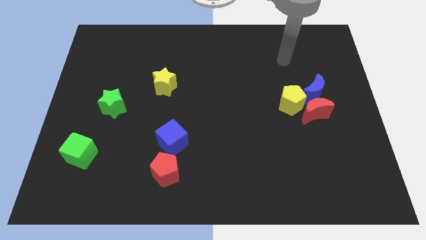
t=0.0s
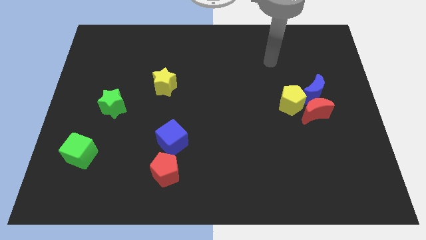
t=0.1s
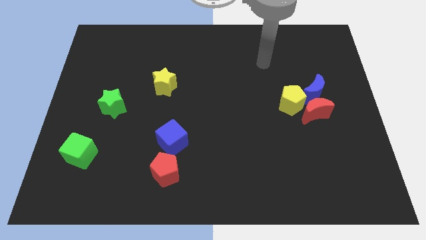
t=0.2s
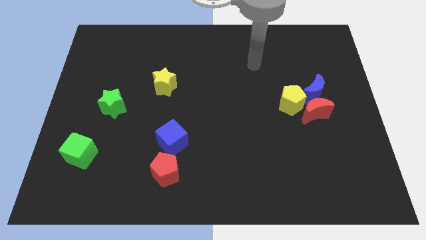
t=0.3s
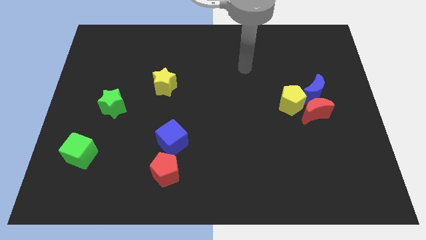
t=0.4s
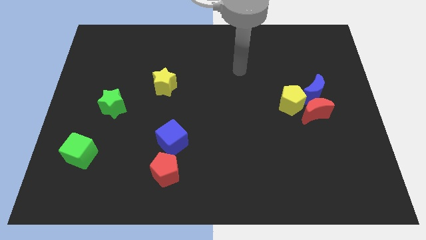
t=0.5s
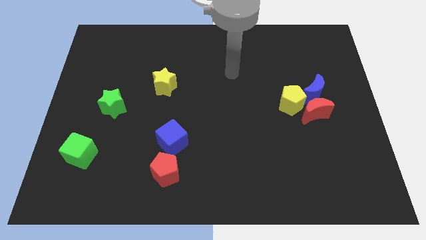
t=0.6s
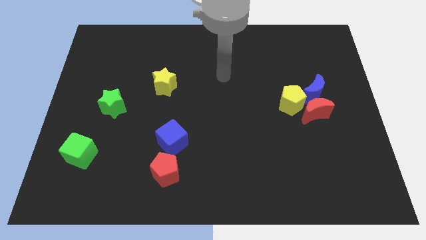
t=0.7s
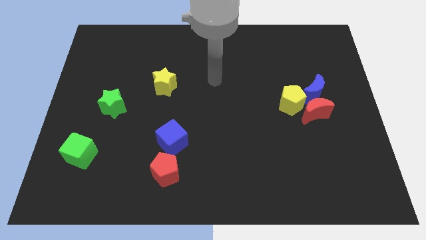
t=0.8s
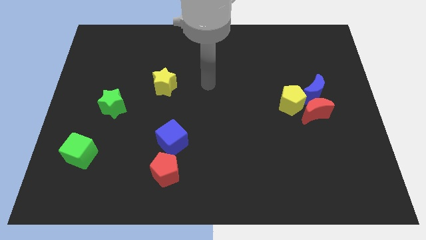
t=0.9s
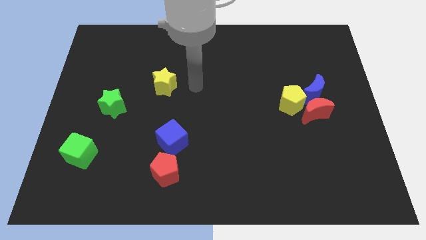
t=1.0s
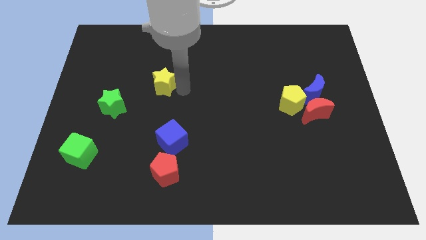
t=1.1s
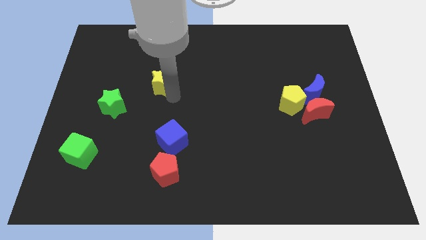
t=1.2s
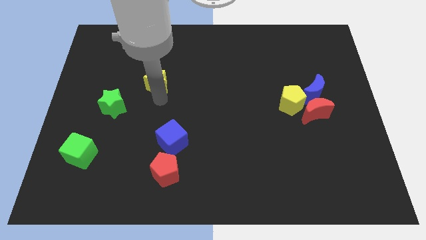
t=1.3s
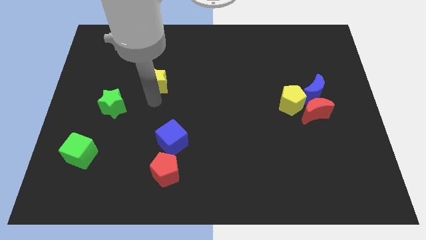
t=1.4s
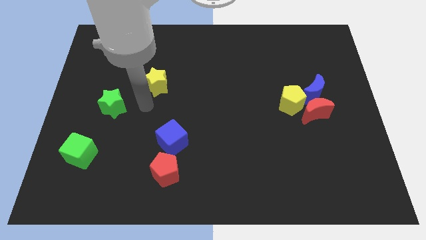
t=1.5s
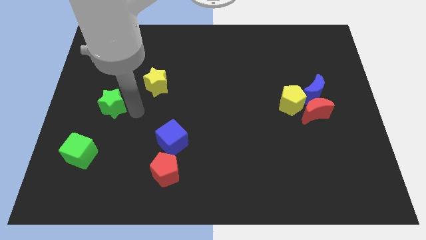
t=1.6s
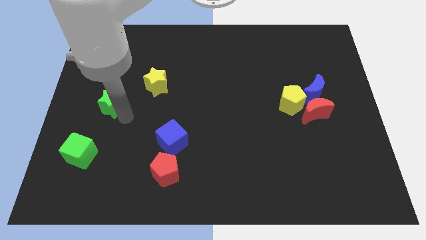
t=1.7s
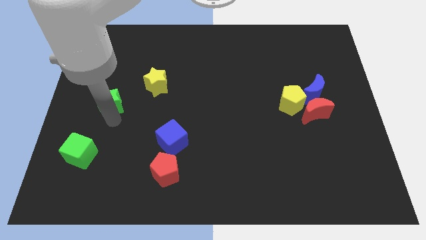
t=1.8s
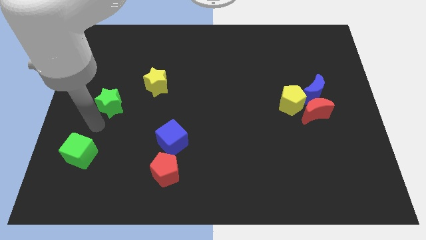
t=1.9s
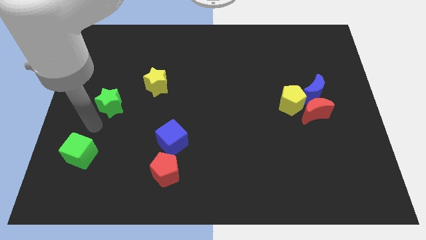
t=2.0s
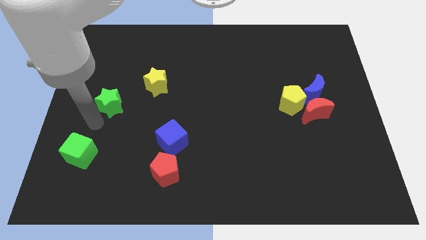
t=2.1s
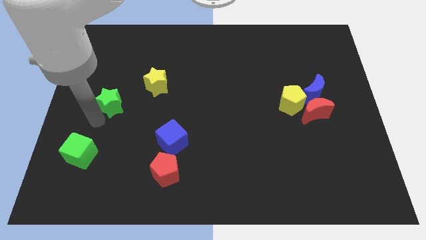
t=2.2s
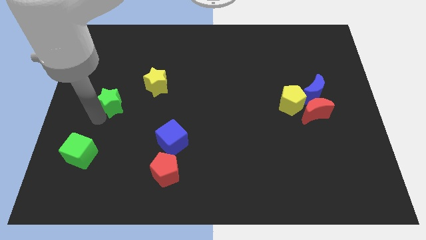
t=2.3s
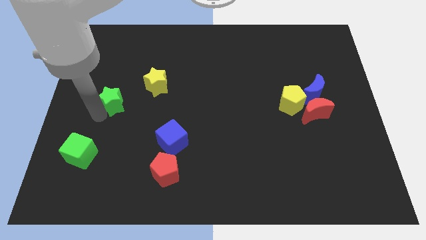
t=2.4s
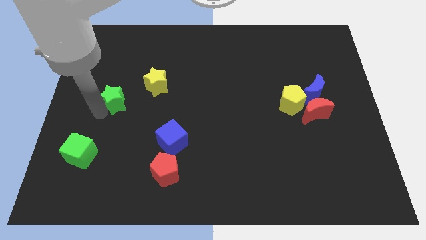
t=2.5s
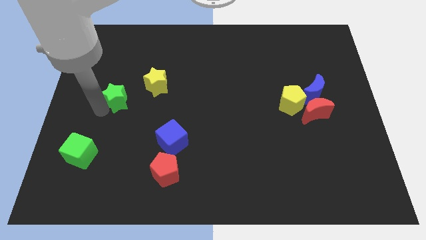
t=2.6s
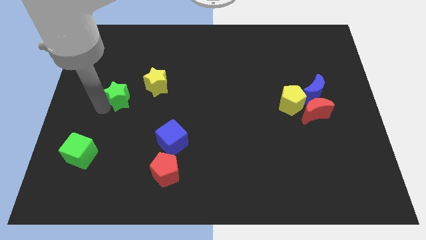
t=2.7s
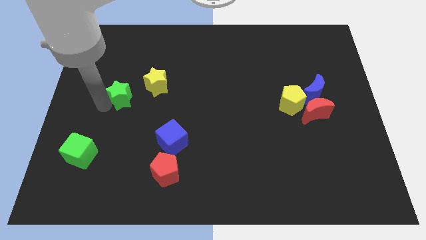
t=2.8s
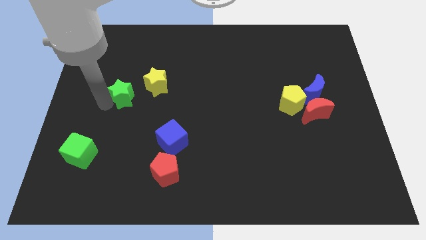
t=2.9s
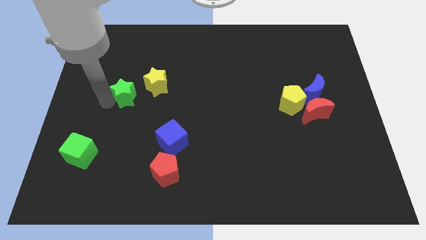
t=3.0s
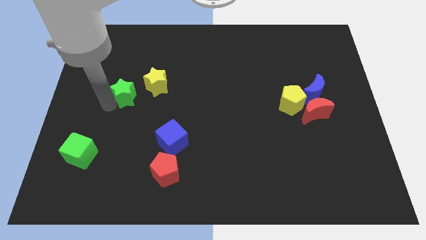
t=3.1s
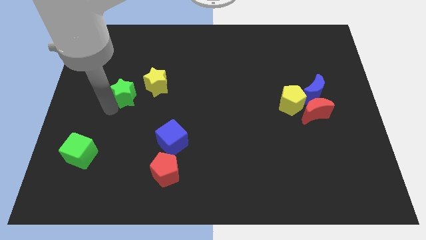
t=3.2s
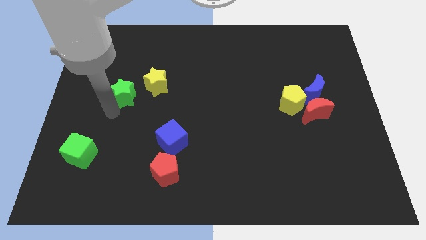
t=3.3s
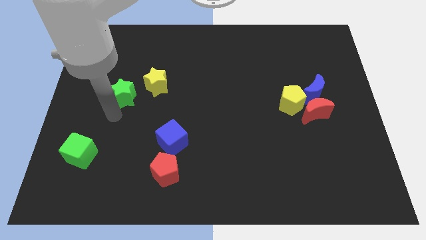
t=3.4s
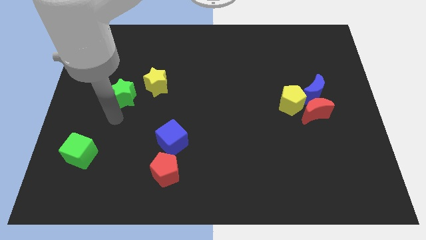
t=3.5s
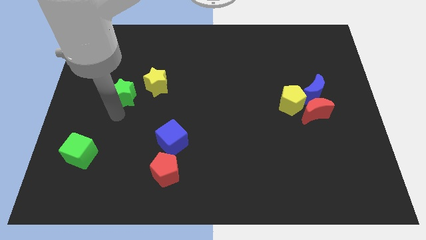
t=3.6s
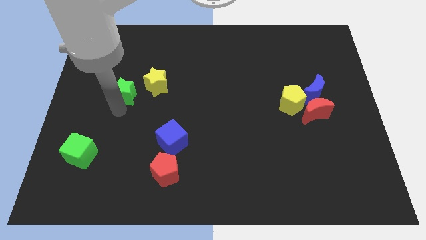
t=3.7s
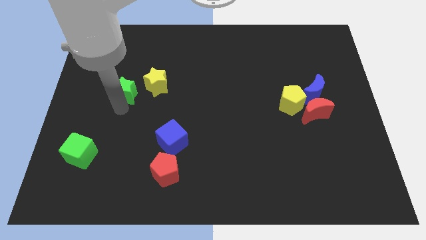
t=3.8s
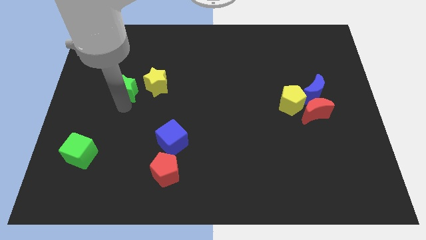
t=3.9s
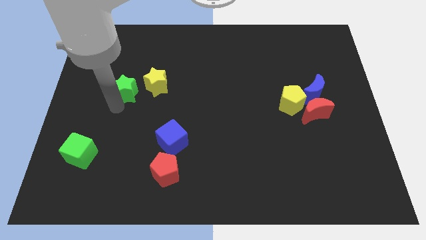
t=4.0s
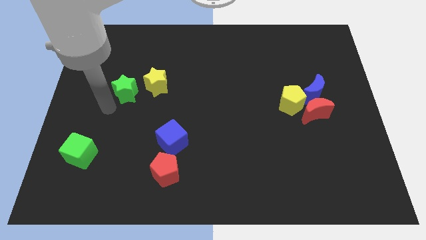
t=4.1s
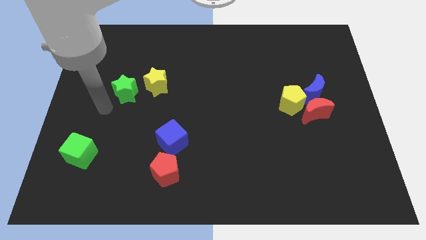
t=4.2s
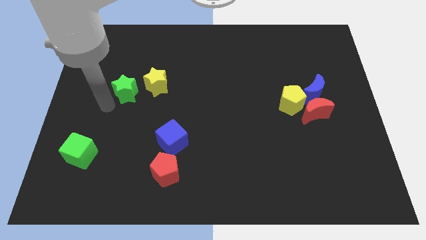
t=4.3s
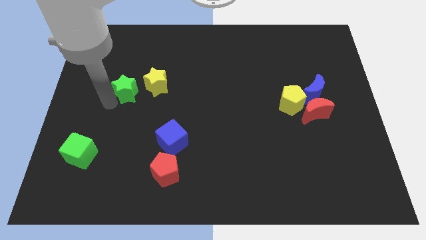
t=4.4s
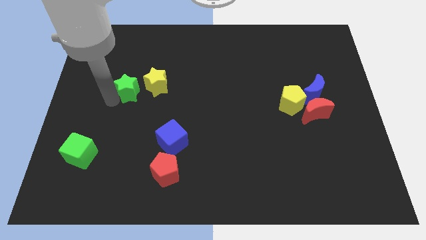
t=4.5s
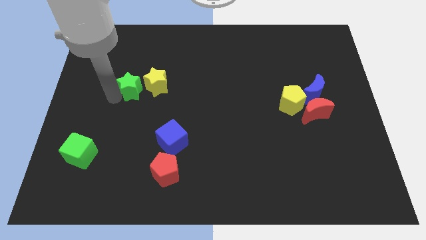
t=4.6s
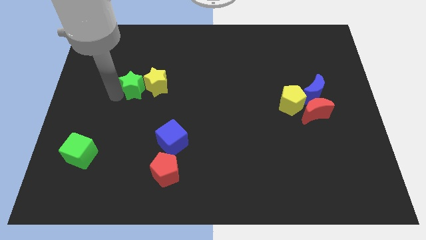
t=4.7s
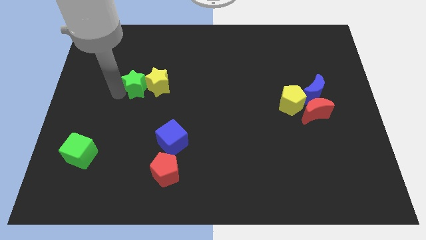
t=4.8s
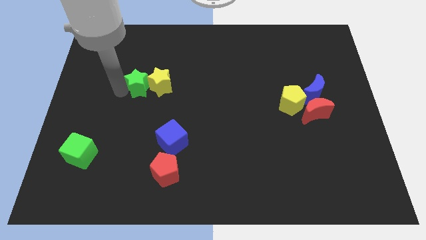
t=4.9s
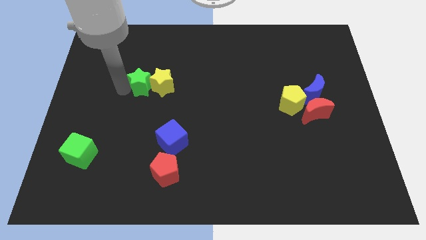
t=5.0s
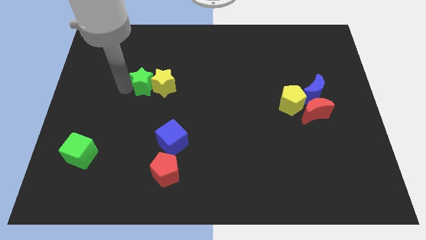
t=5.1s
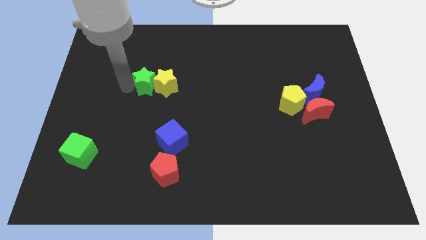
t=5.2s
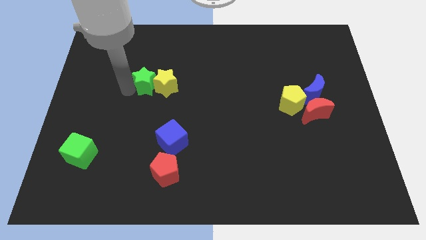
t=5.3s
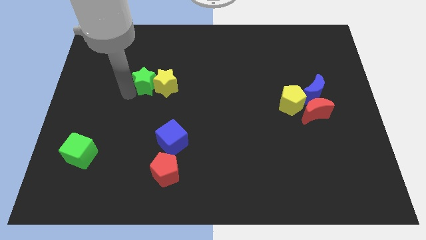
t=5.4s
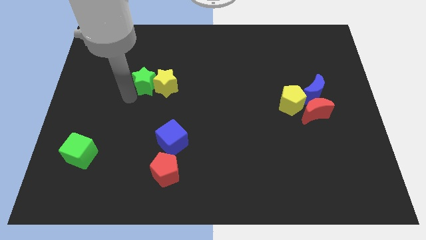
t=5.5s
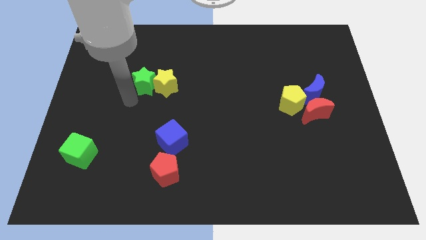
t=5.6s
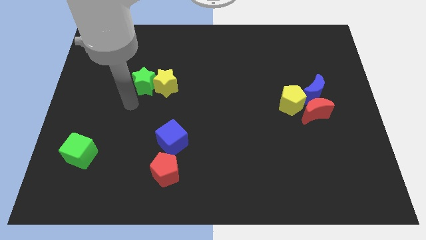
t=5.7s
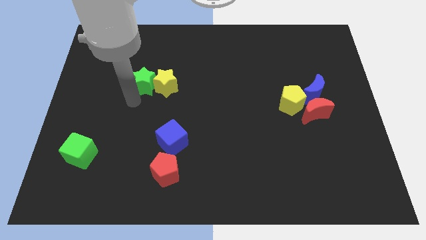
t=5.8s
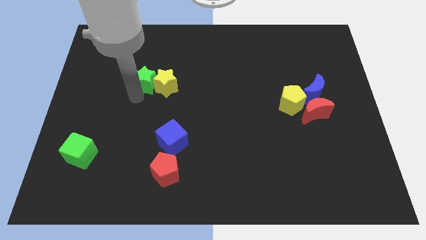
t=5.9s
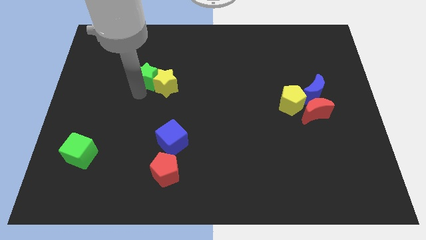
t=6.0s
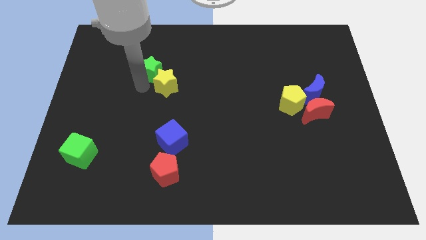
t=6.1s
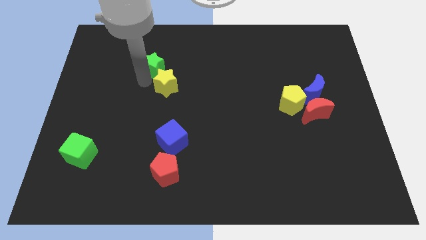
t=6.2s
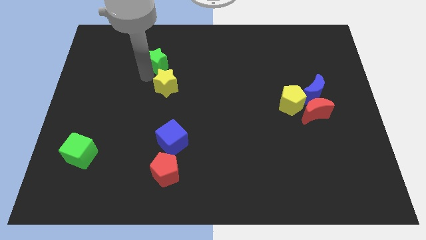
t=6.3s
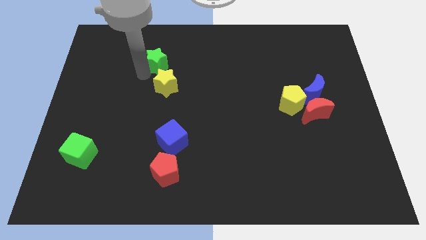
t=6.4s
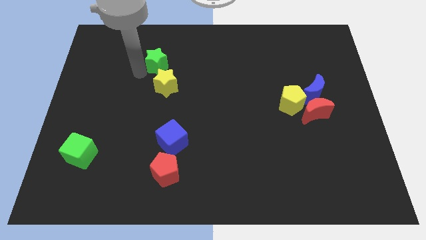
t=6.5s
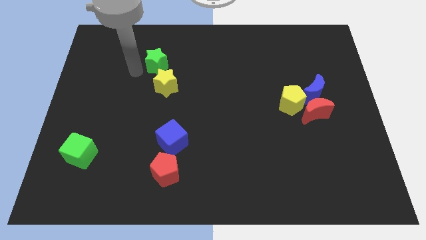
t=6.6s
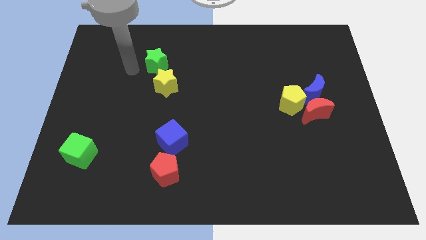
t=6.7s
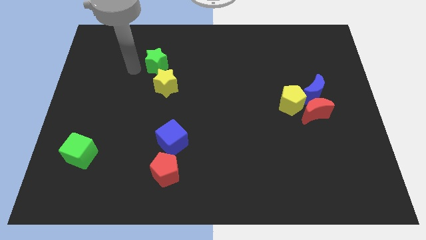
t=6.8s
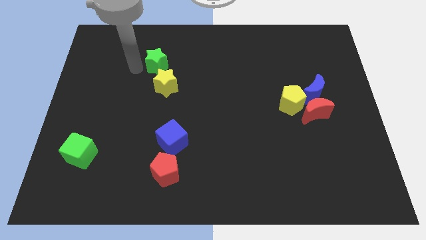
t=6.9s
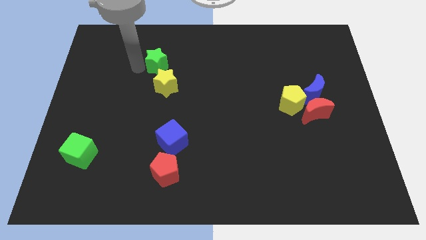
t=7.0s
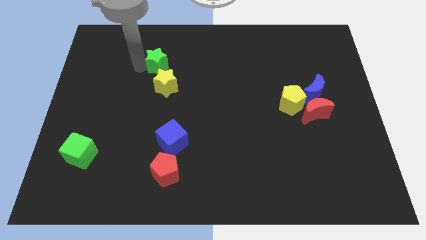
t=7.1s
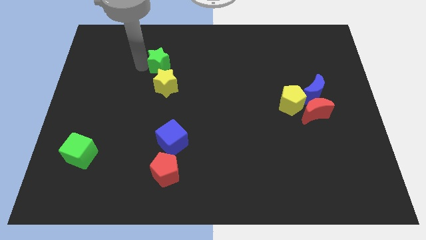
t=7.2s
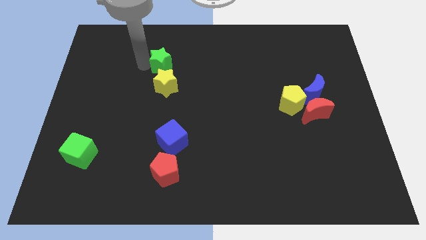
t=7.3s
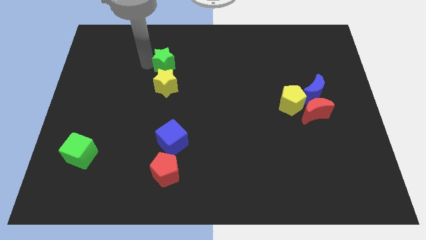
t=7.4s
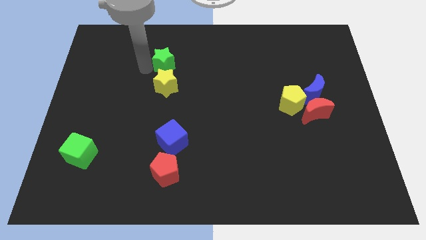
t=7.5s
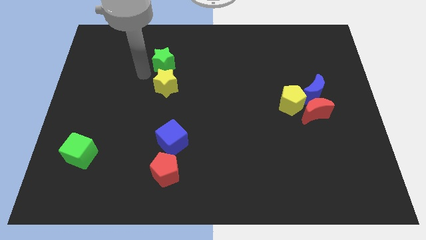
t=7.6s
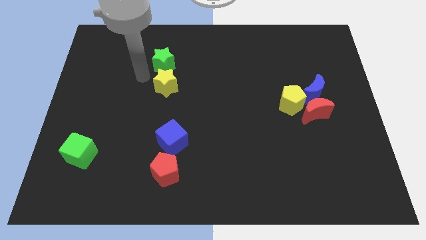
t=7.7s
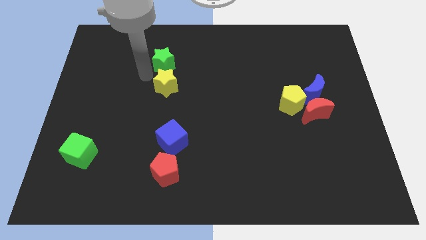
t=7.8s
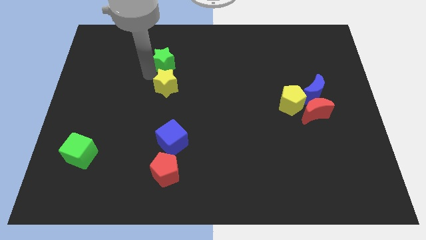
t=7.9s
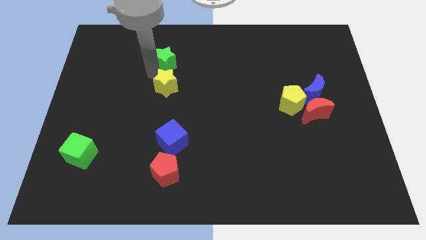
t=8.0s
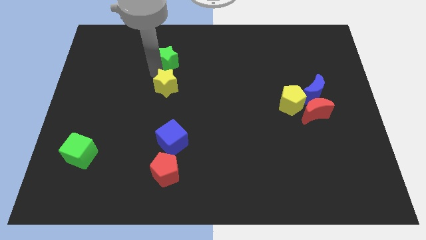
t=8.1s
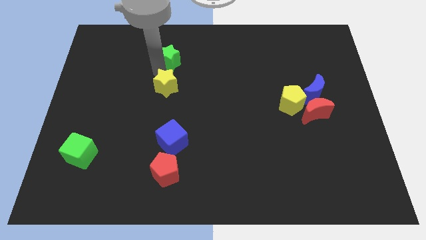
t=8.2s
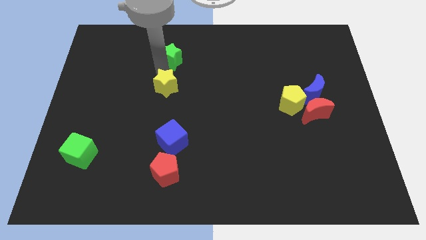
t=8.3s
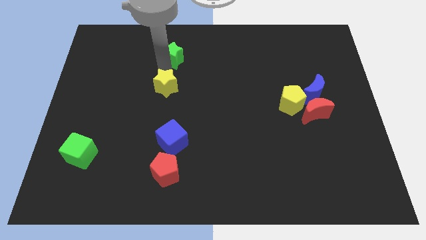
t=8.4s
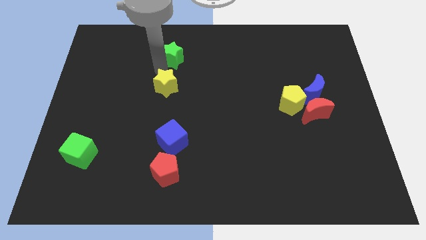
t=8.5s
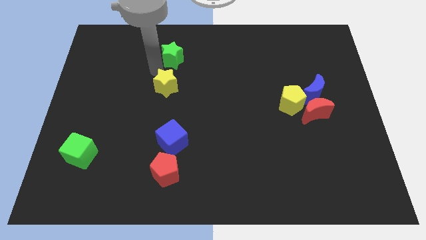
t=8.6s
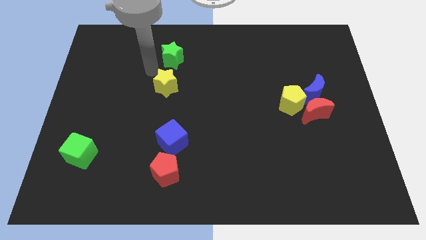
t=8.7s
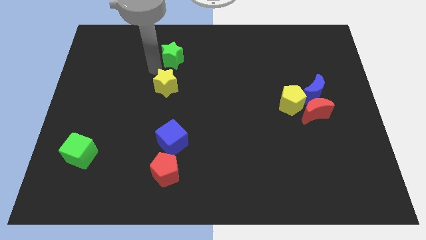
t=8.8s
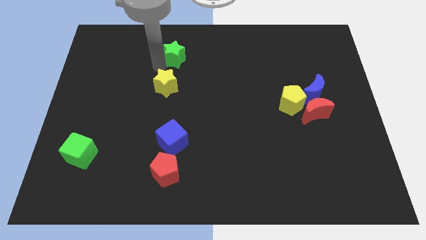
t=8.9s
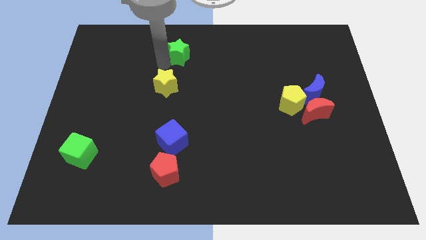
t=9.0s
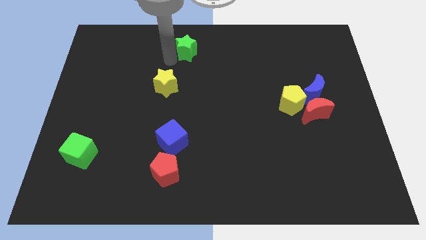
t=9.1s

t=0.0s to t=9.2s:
move the green star to the top
